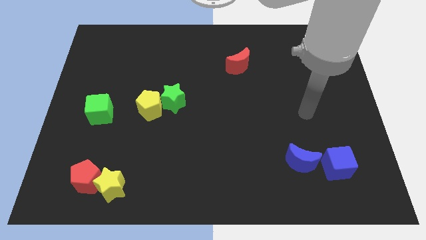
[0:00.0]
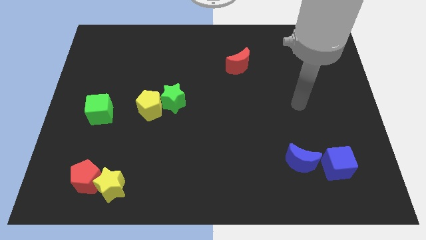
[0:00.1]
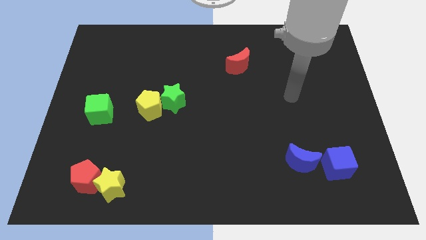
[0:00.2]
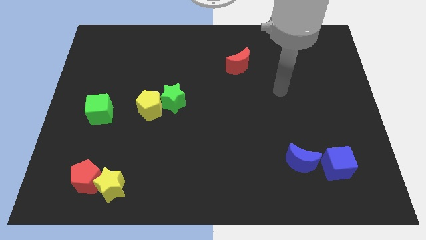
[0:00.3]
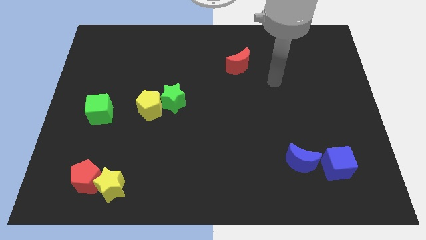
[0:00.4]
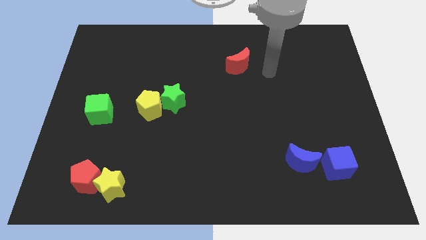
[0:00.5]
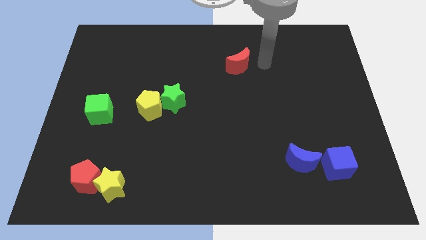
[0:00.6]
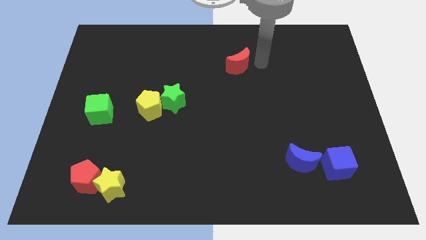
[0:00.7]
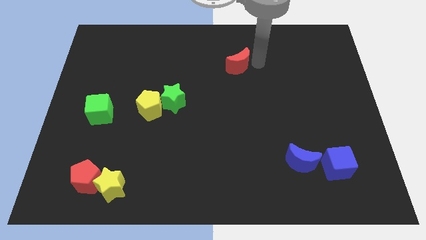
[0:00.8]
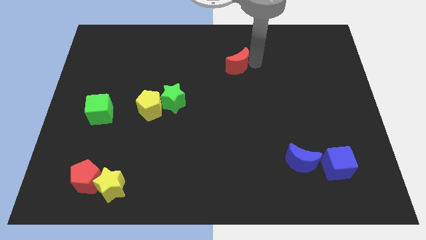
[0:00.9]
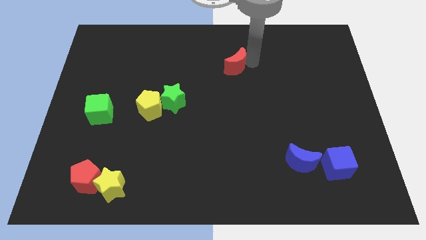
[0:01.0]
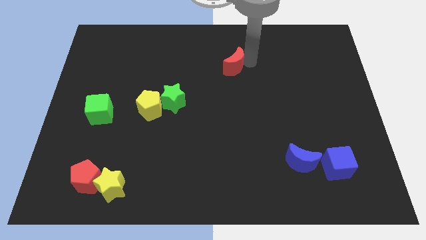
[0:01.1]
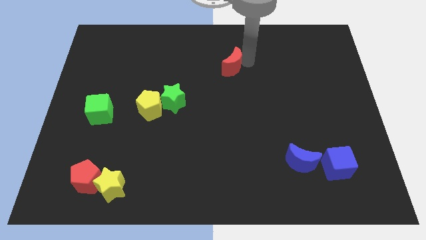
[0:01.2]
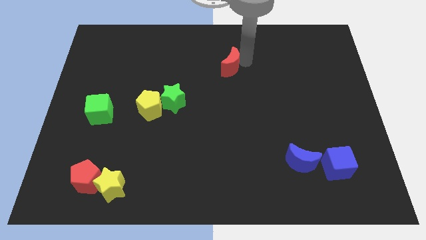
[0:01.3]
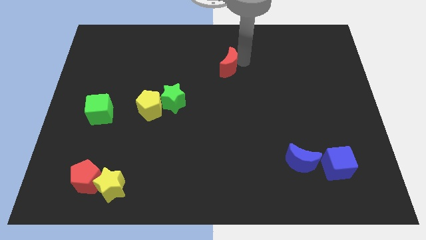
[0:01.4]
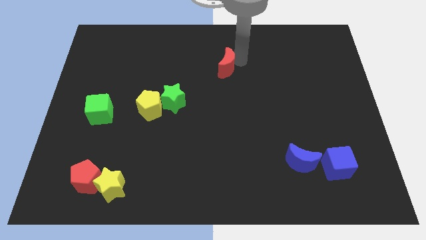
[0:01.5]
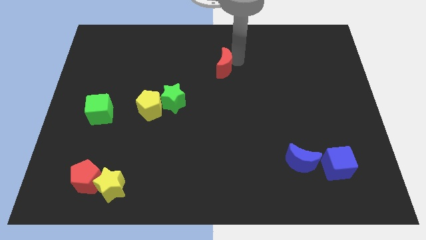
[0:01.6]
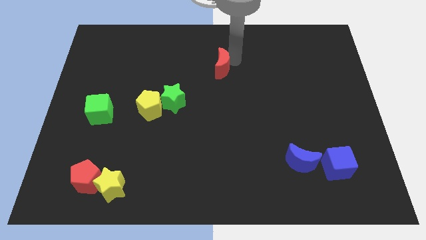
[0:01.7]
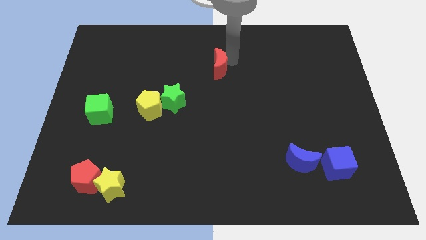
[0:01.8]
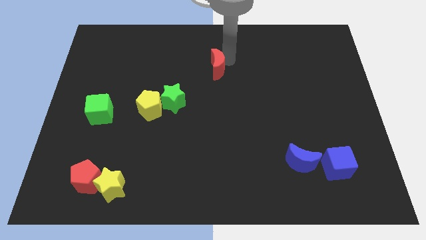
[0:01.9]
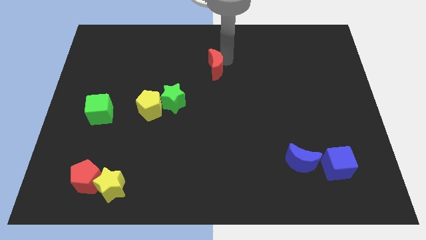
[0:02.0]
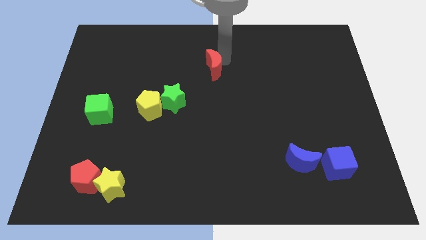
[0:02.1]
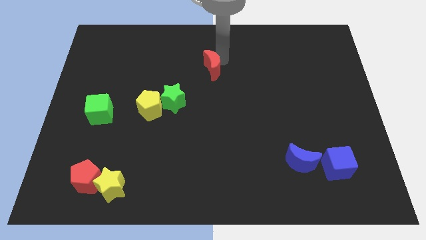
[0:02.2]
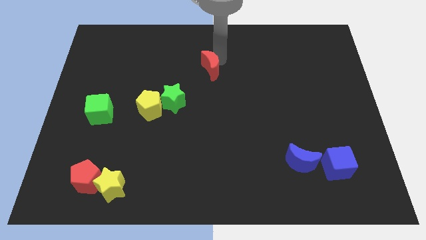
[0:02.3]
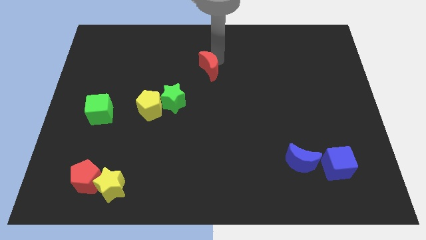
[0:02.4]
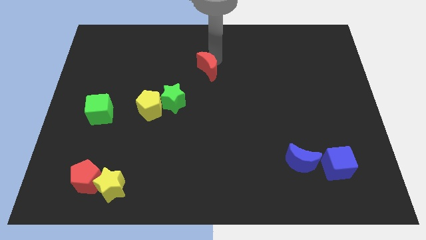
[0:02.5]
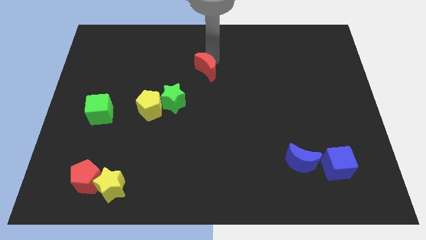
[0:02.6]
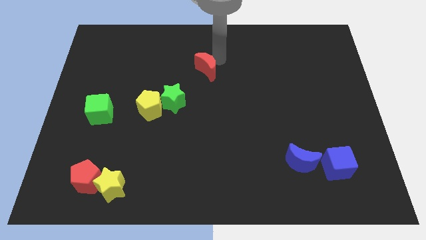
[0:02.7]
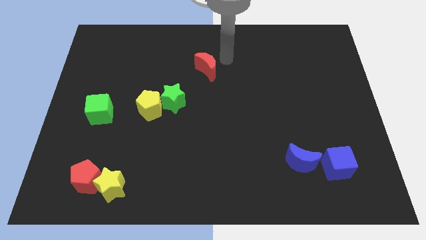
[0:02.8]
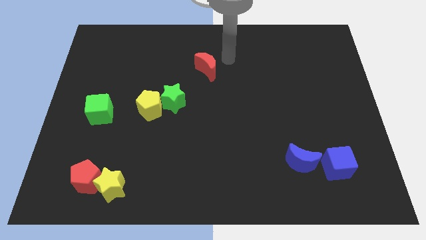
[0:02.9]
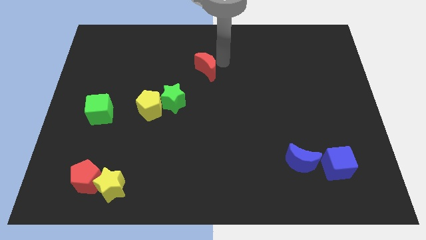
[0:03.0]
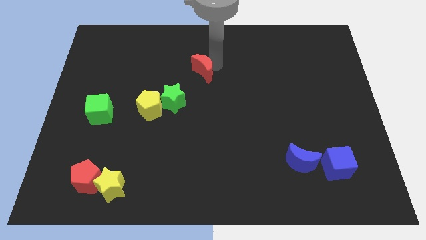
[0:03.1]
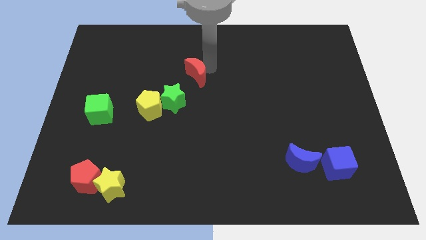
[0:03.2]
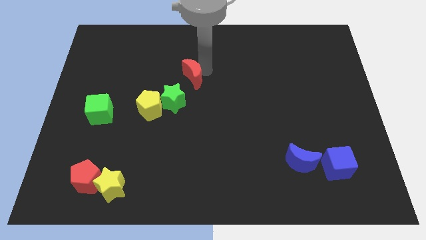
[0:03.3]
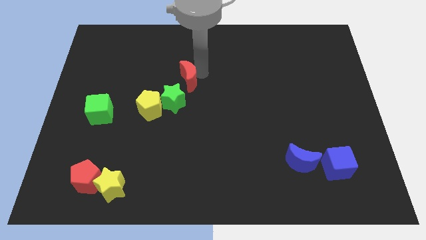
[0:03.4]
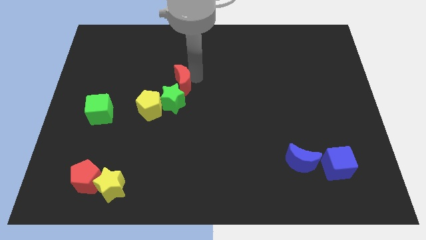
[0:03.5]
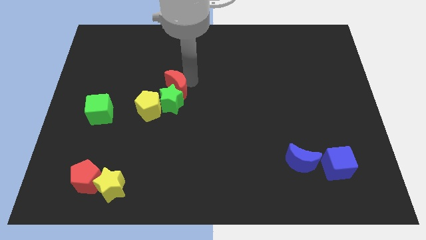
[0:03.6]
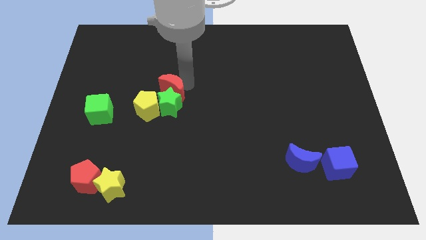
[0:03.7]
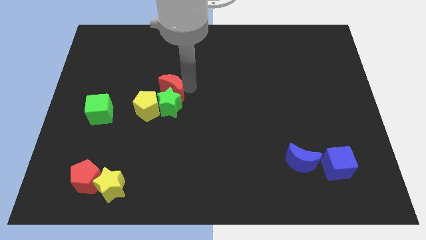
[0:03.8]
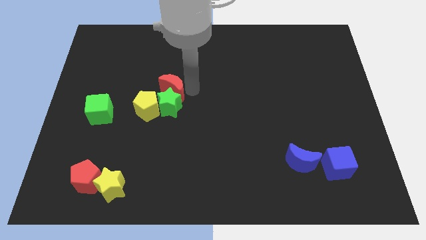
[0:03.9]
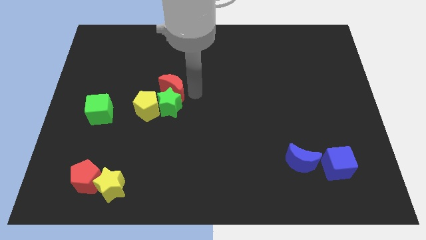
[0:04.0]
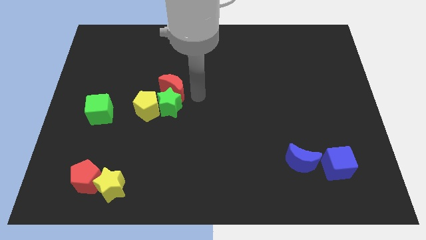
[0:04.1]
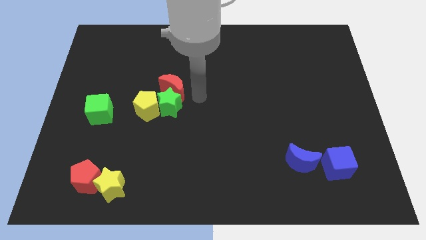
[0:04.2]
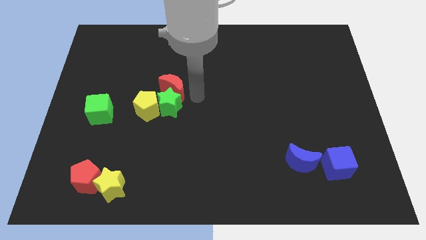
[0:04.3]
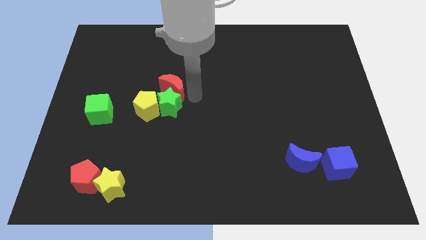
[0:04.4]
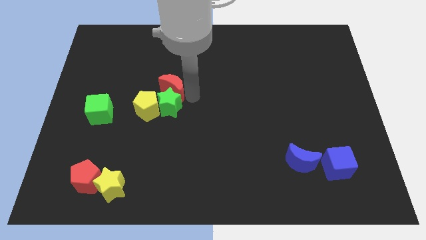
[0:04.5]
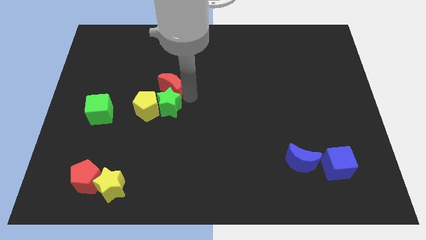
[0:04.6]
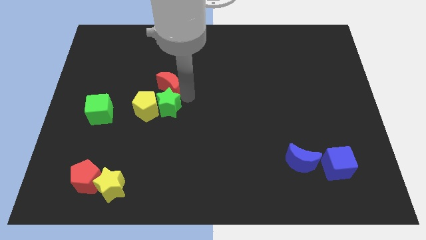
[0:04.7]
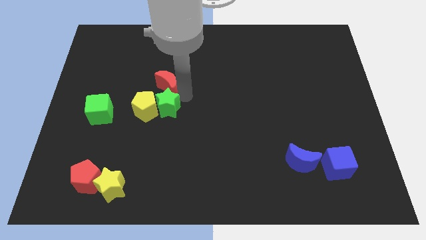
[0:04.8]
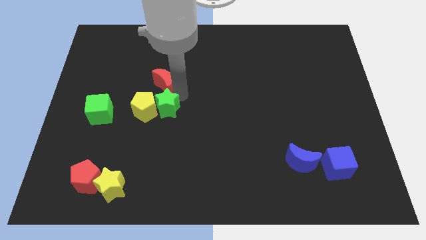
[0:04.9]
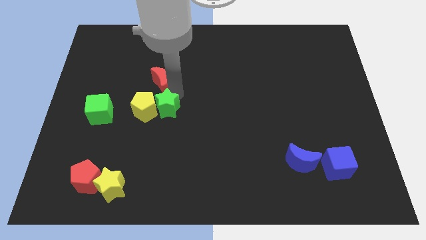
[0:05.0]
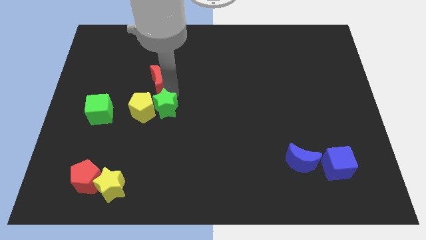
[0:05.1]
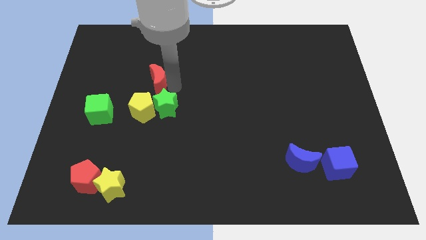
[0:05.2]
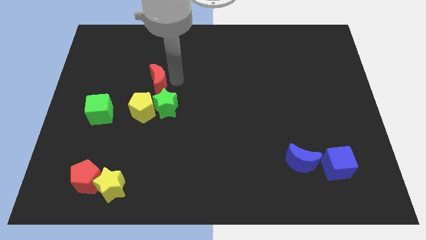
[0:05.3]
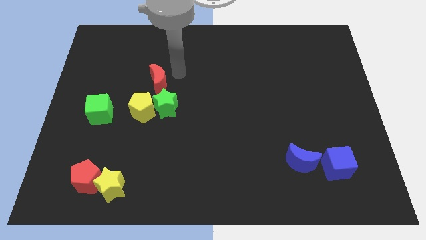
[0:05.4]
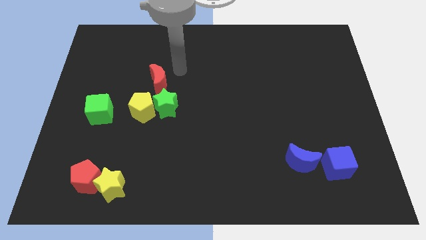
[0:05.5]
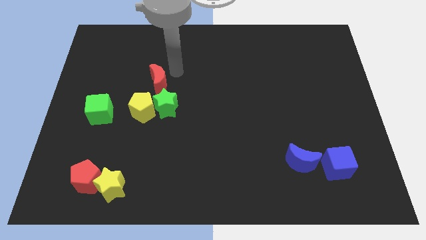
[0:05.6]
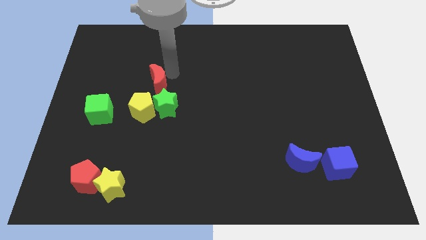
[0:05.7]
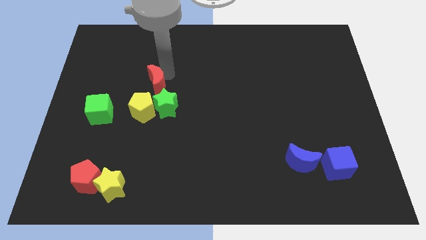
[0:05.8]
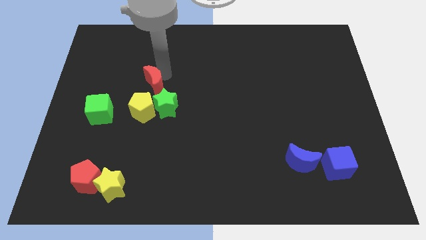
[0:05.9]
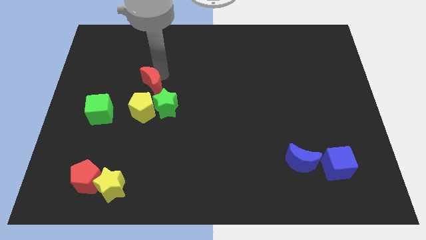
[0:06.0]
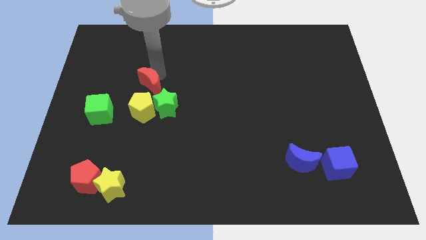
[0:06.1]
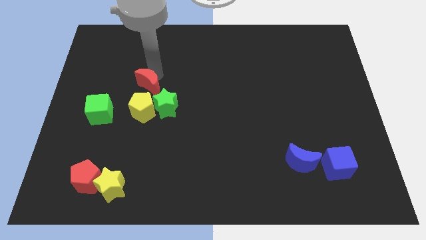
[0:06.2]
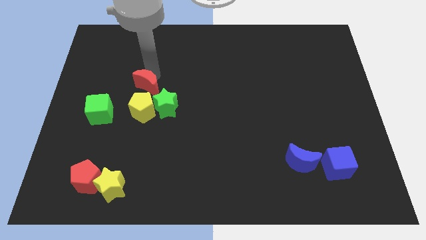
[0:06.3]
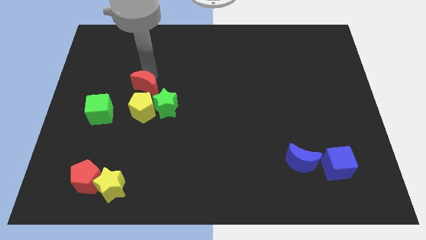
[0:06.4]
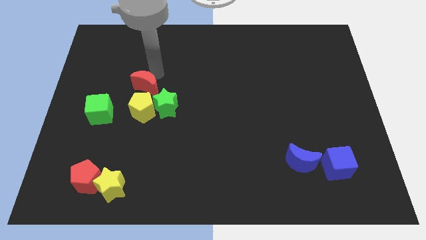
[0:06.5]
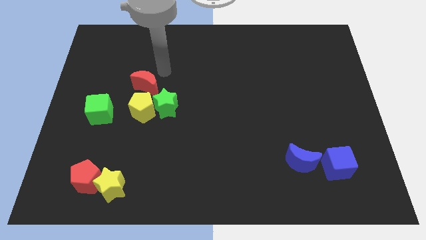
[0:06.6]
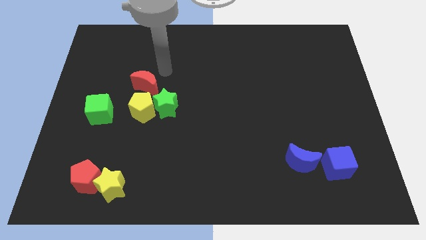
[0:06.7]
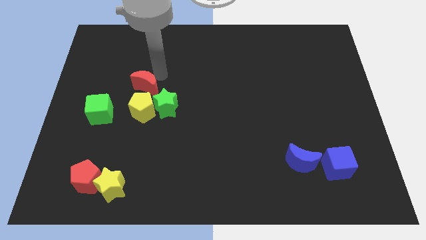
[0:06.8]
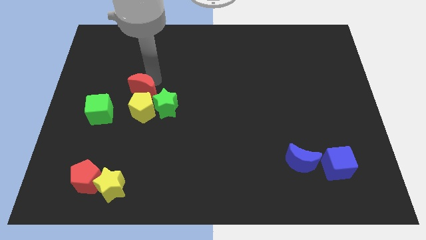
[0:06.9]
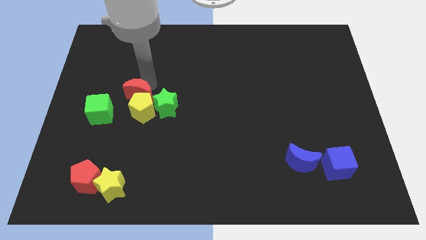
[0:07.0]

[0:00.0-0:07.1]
slide the red moon to the left of the green star
